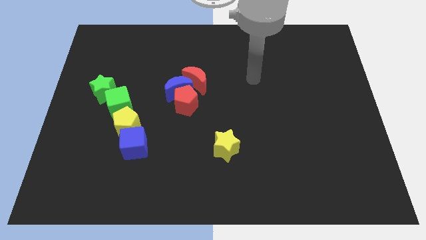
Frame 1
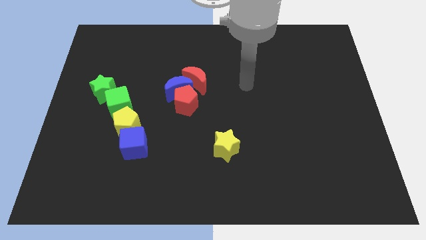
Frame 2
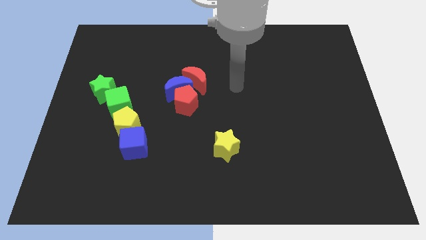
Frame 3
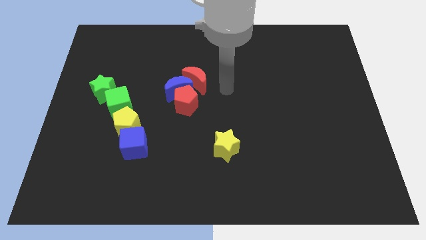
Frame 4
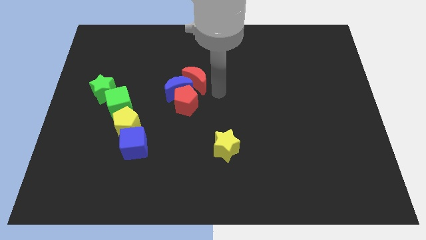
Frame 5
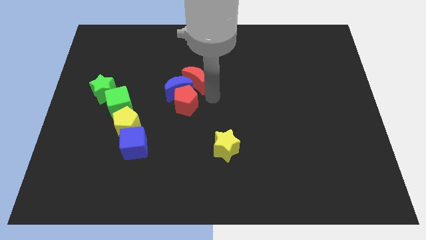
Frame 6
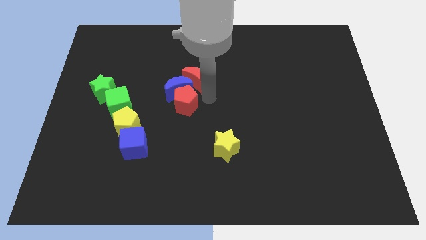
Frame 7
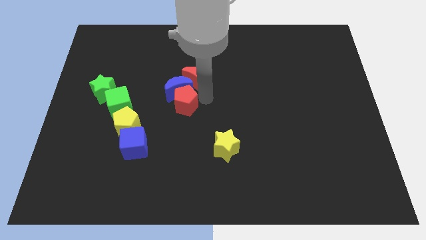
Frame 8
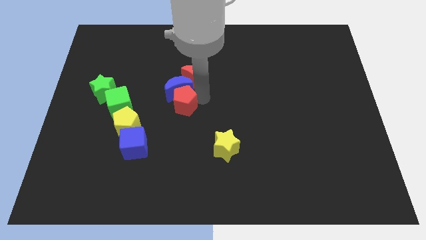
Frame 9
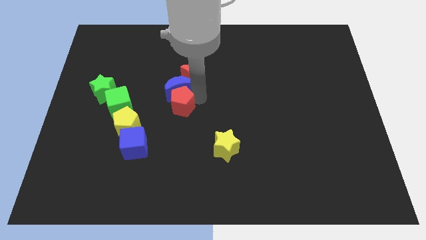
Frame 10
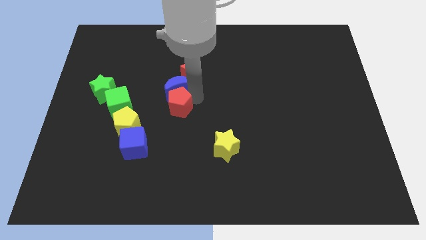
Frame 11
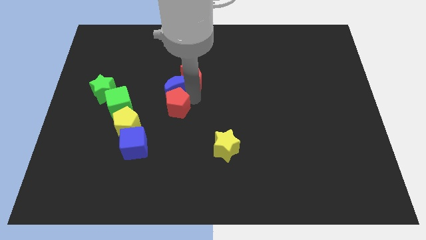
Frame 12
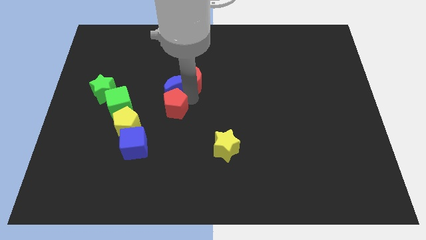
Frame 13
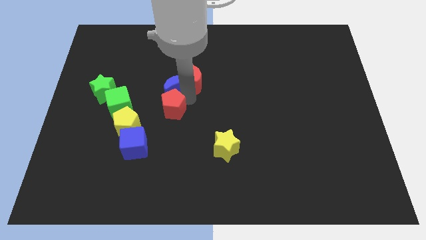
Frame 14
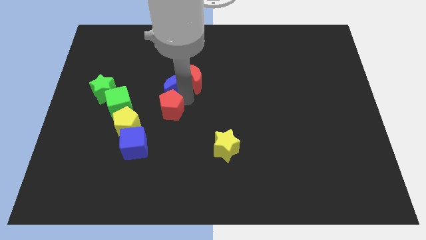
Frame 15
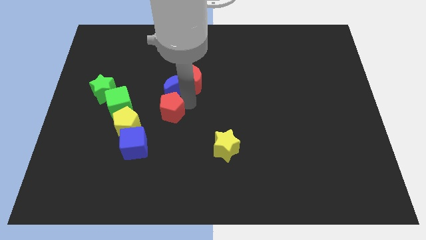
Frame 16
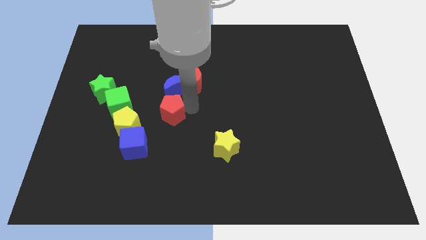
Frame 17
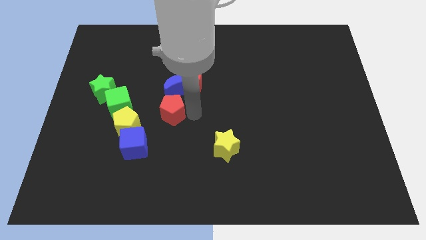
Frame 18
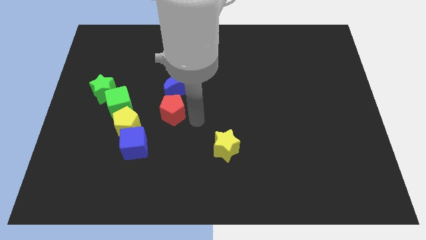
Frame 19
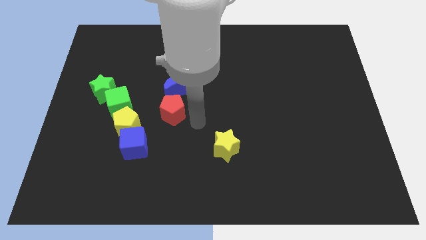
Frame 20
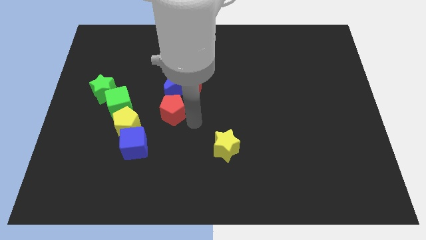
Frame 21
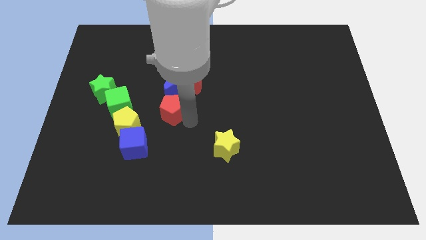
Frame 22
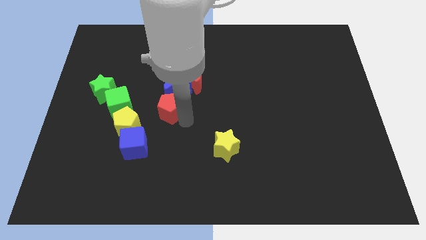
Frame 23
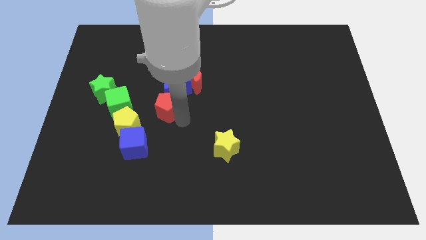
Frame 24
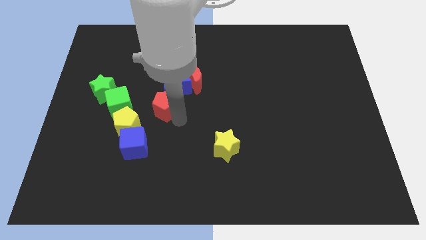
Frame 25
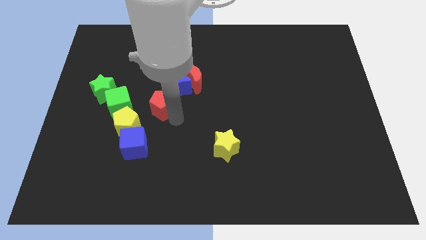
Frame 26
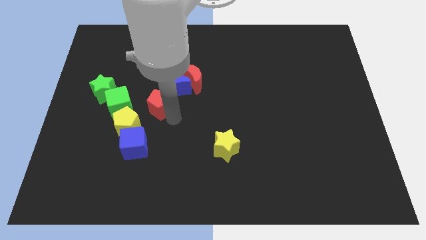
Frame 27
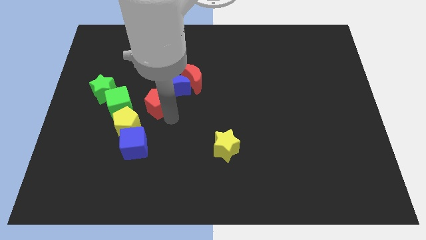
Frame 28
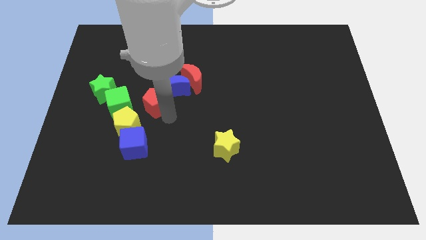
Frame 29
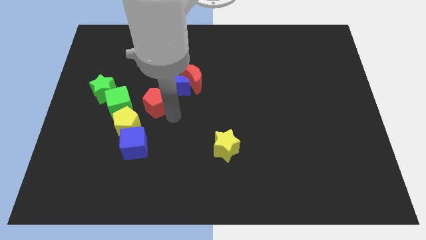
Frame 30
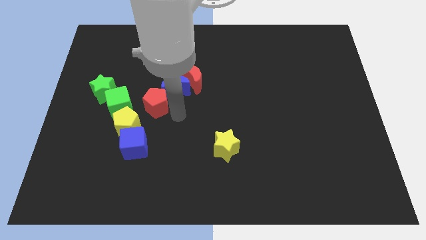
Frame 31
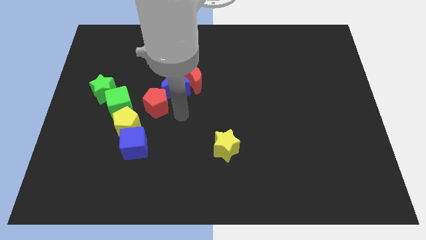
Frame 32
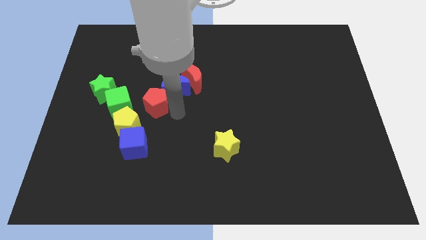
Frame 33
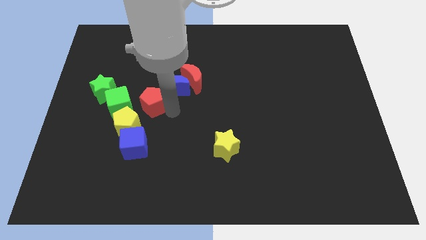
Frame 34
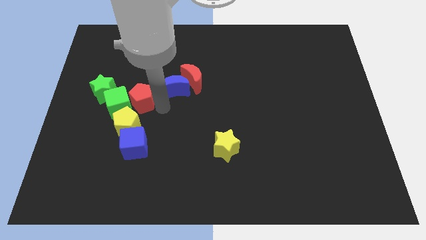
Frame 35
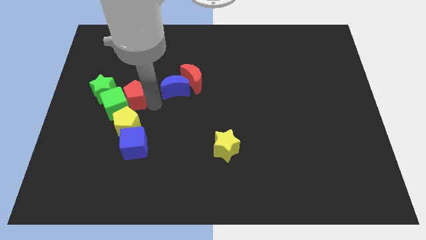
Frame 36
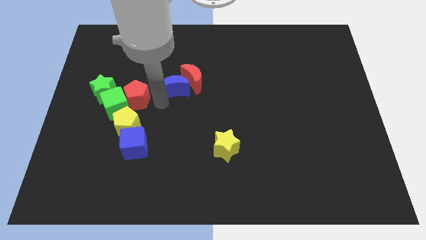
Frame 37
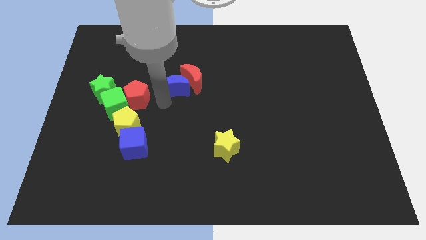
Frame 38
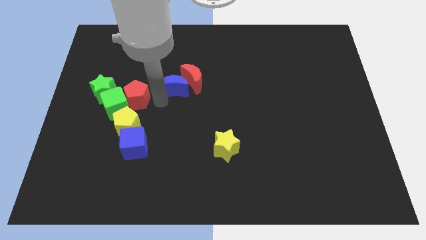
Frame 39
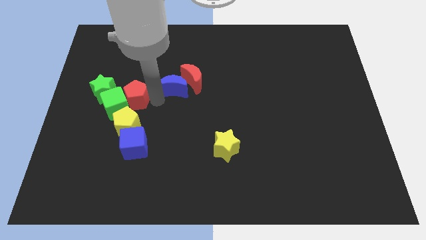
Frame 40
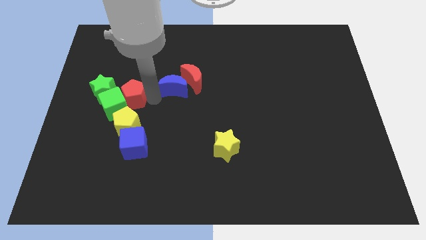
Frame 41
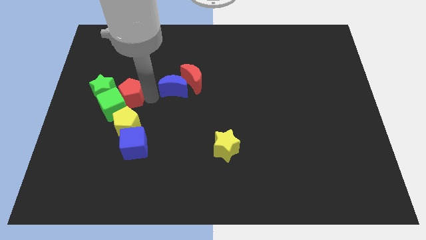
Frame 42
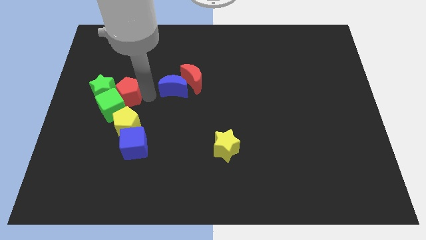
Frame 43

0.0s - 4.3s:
put the red pentagon to the green star

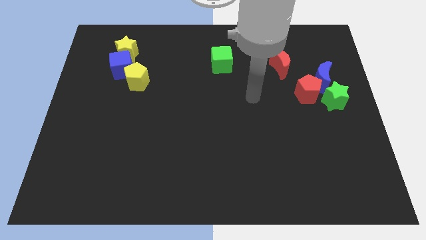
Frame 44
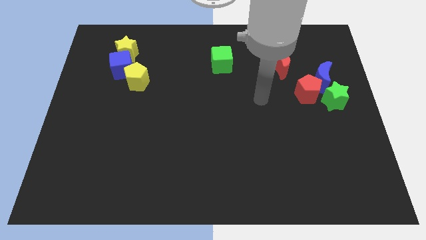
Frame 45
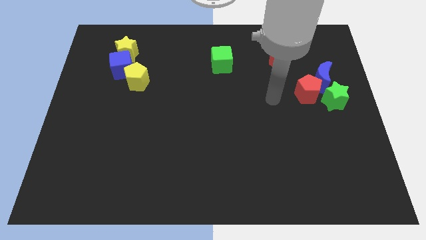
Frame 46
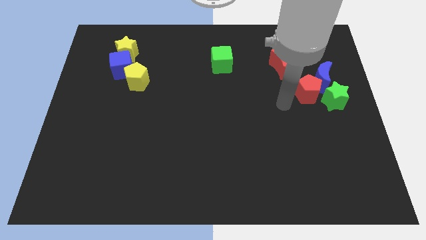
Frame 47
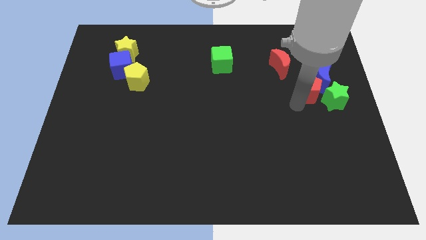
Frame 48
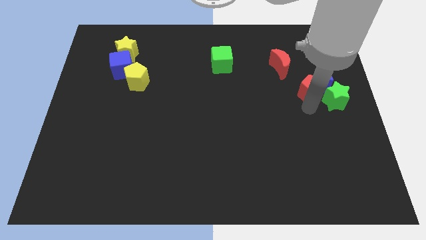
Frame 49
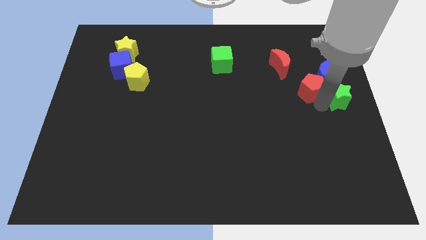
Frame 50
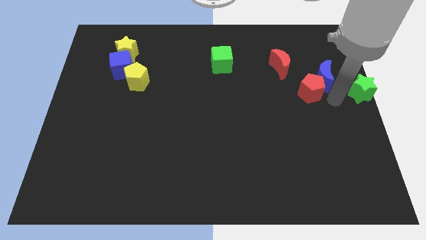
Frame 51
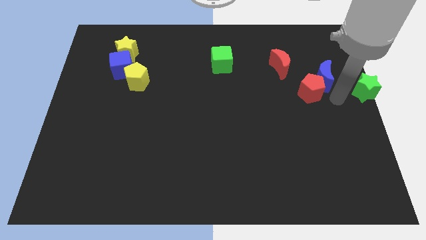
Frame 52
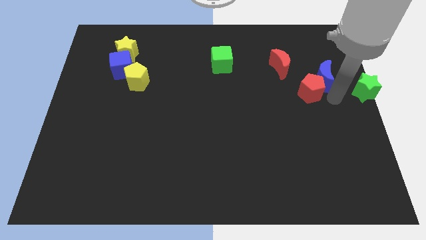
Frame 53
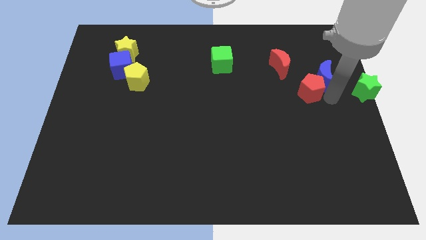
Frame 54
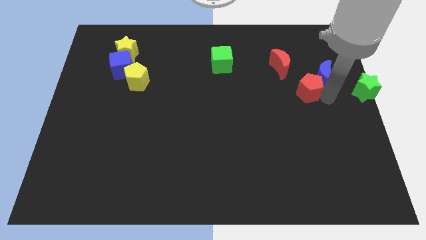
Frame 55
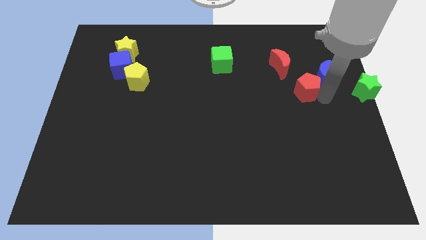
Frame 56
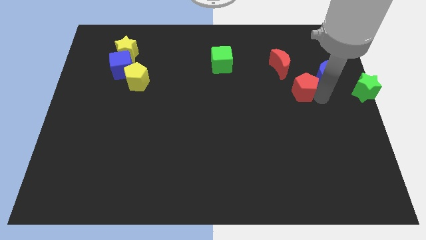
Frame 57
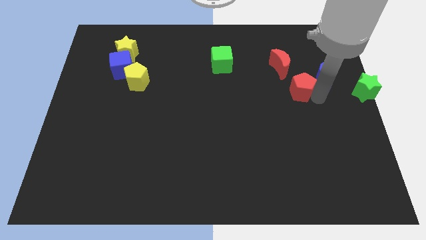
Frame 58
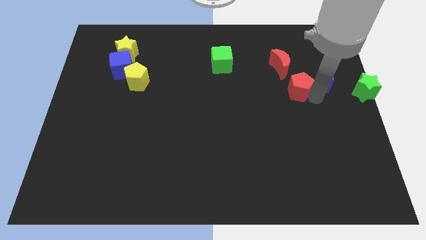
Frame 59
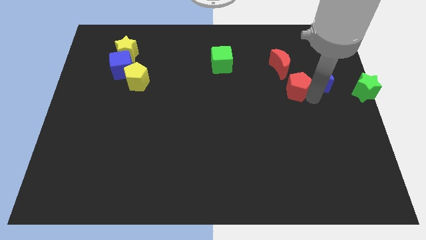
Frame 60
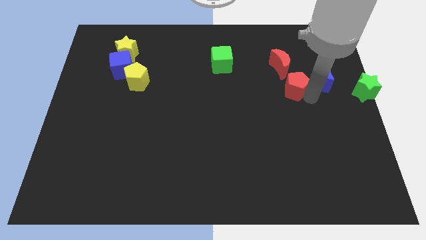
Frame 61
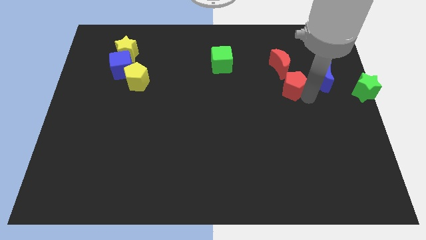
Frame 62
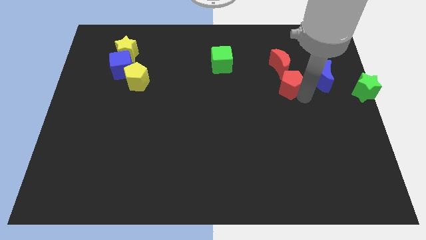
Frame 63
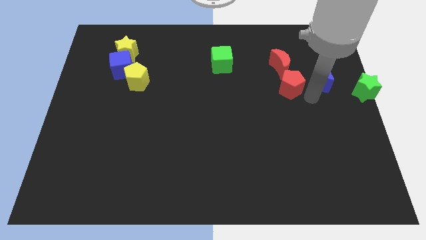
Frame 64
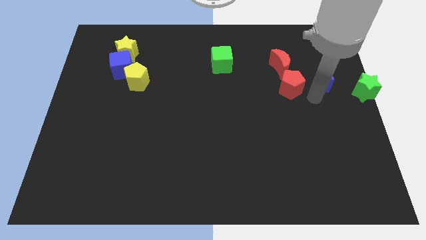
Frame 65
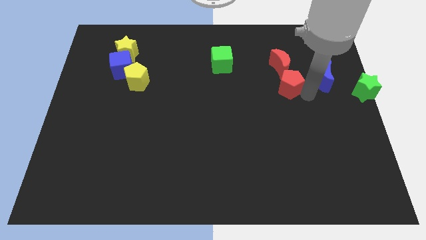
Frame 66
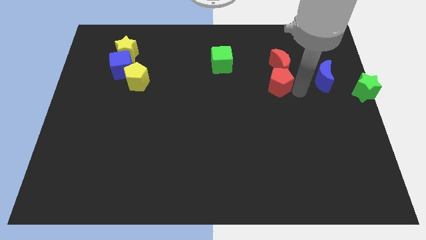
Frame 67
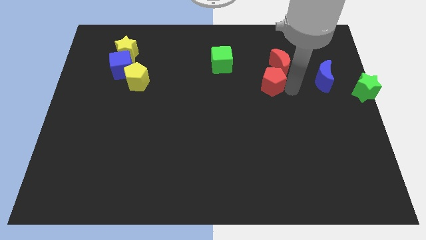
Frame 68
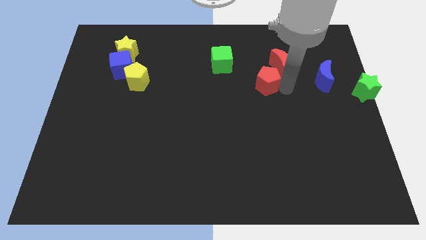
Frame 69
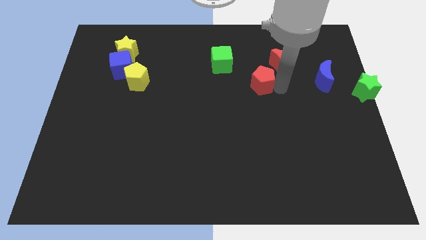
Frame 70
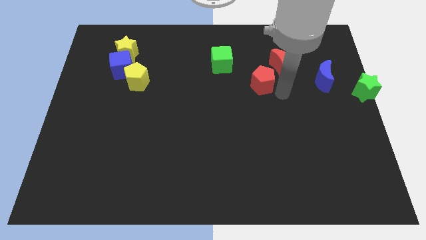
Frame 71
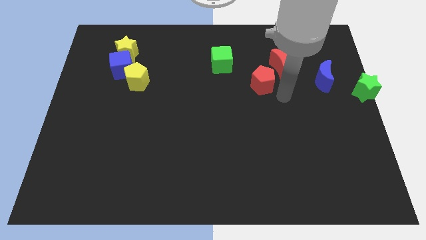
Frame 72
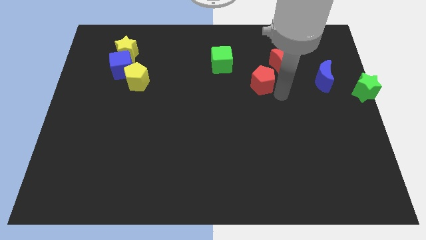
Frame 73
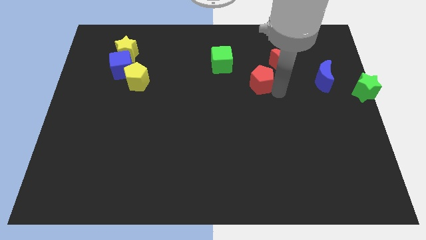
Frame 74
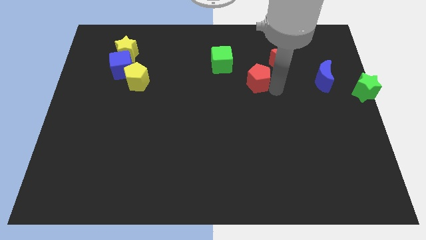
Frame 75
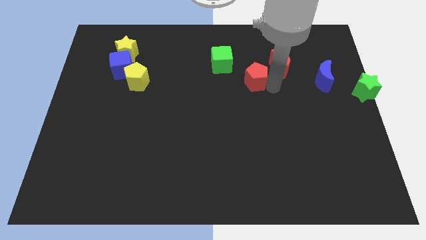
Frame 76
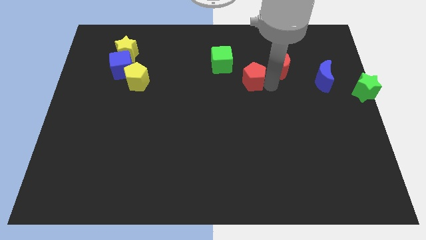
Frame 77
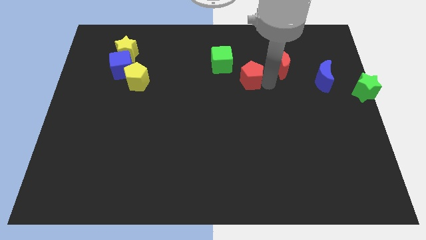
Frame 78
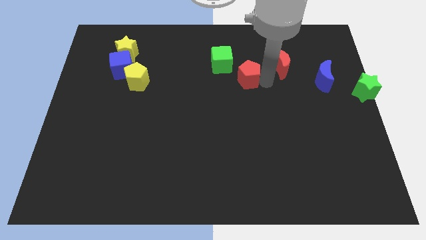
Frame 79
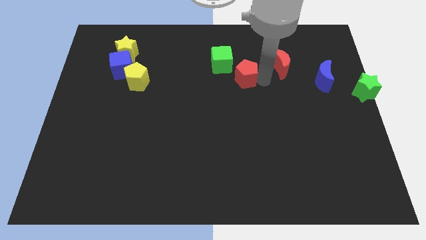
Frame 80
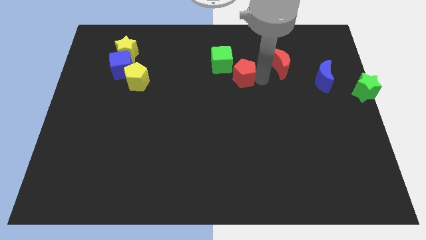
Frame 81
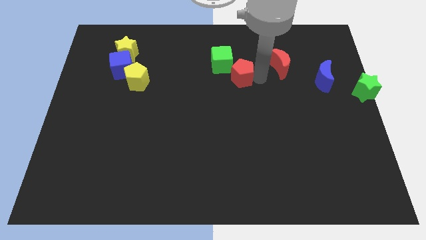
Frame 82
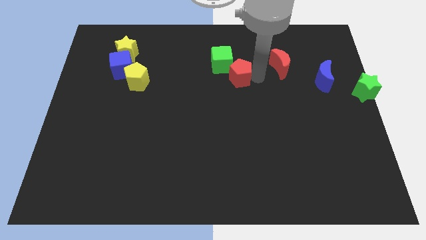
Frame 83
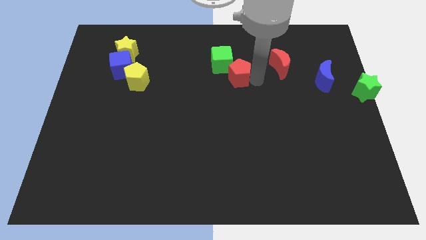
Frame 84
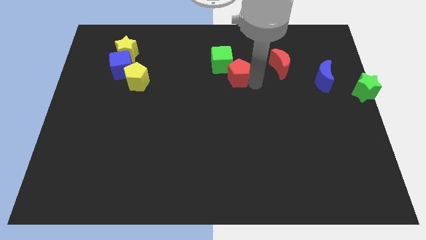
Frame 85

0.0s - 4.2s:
push the red pentagon next to the green cube
